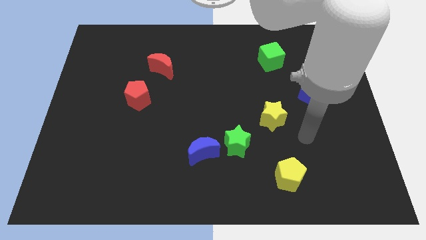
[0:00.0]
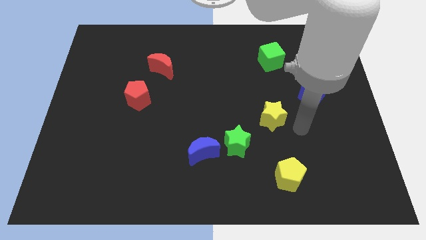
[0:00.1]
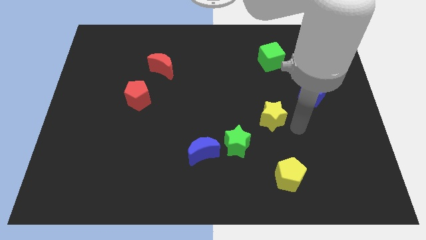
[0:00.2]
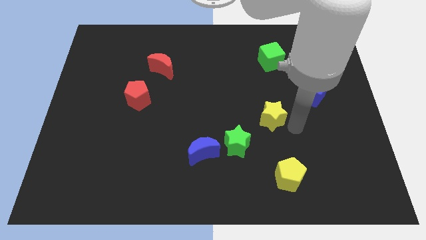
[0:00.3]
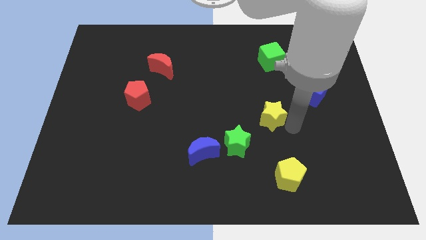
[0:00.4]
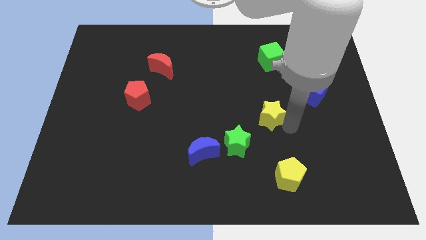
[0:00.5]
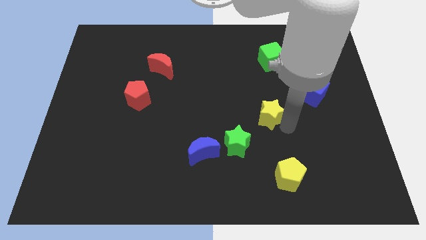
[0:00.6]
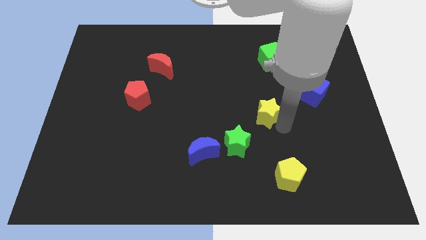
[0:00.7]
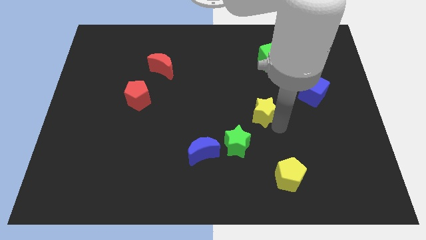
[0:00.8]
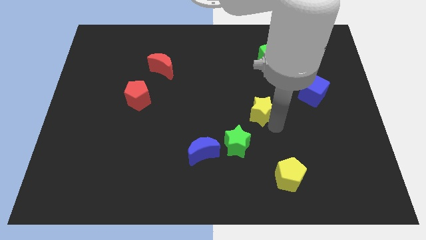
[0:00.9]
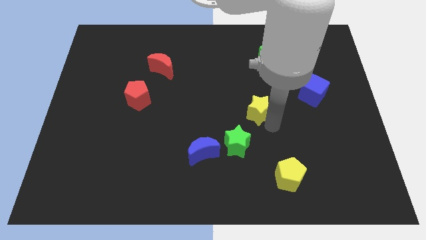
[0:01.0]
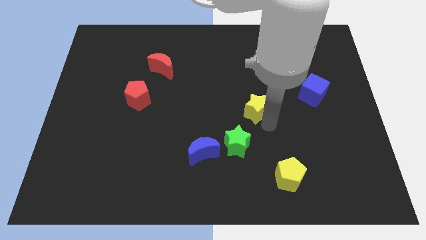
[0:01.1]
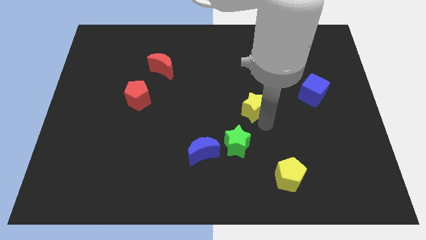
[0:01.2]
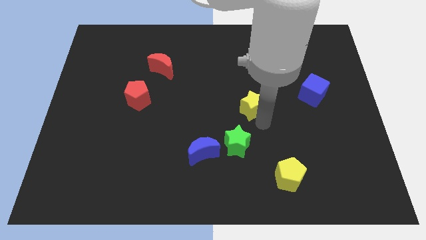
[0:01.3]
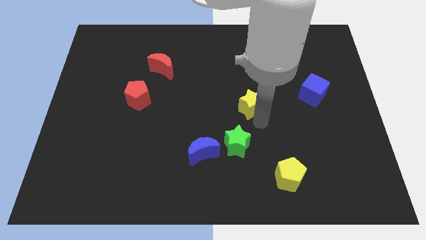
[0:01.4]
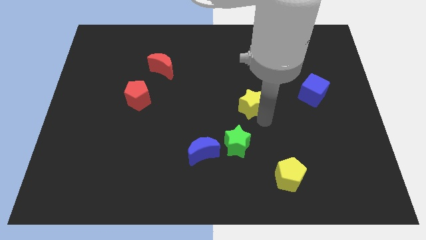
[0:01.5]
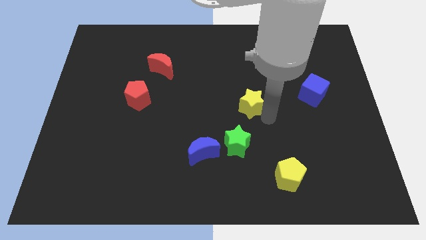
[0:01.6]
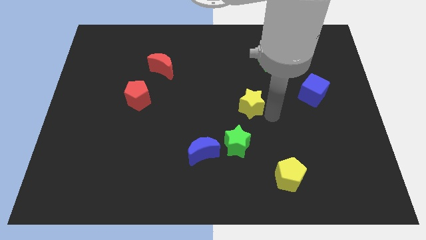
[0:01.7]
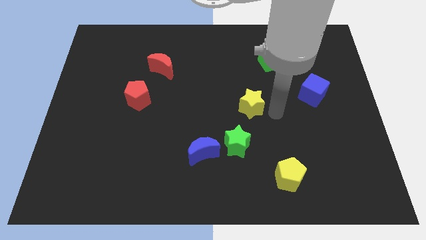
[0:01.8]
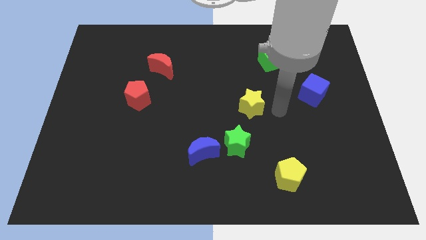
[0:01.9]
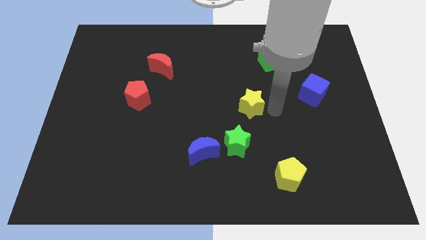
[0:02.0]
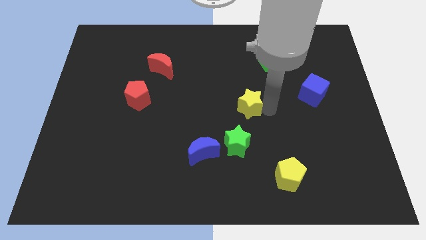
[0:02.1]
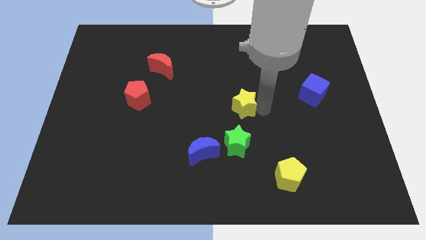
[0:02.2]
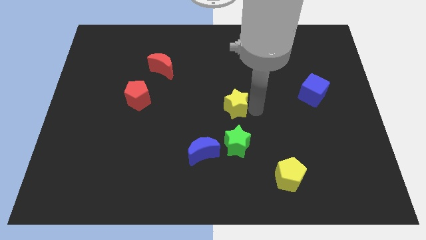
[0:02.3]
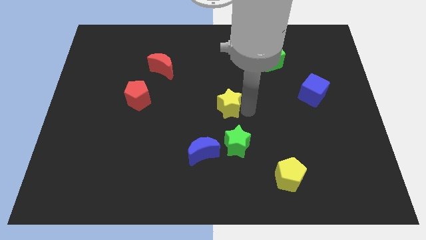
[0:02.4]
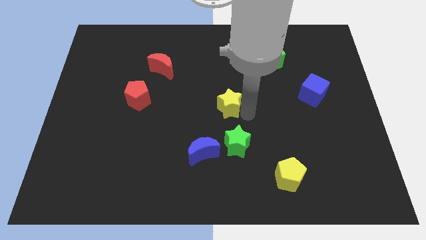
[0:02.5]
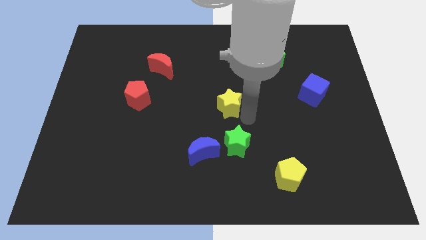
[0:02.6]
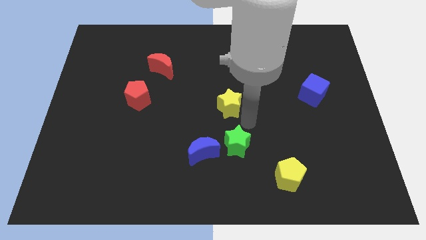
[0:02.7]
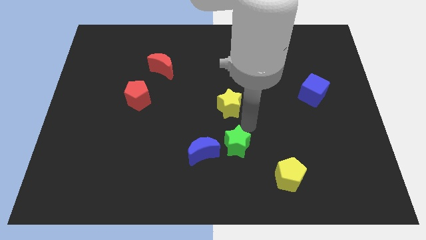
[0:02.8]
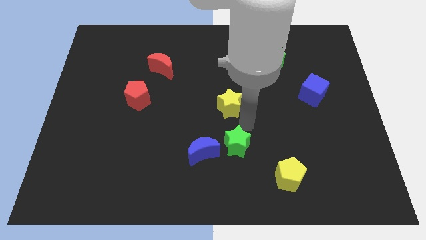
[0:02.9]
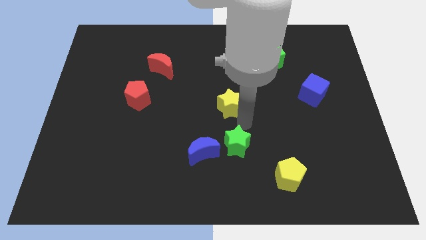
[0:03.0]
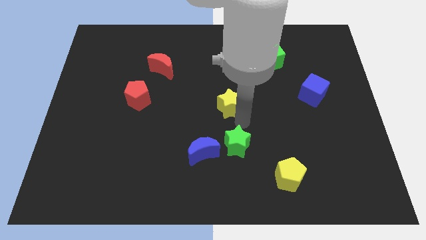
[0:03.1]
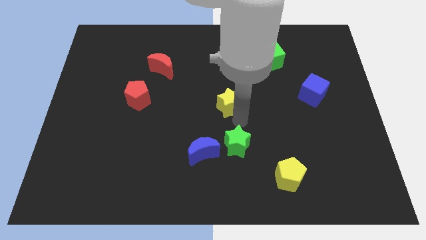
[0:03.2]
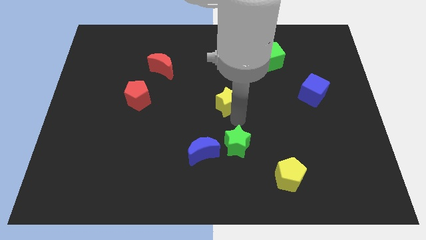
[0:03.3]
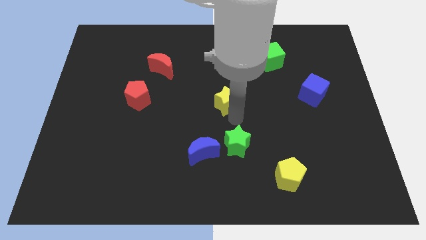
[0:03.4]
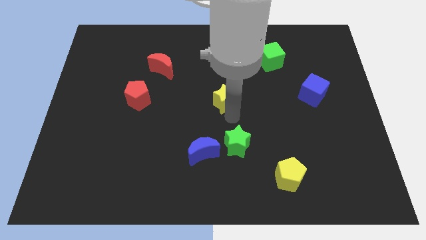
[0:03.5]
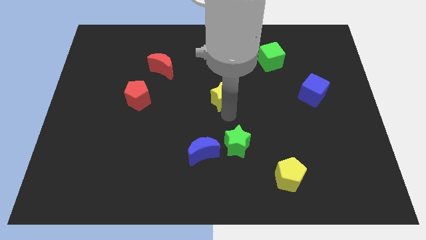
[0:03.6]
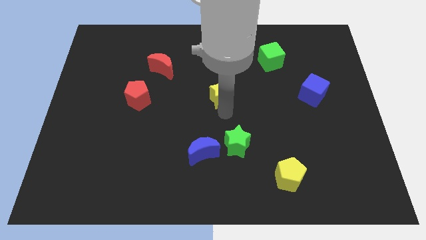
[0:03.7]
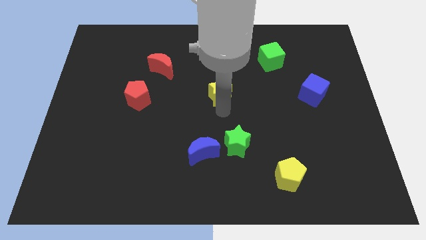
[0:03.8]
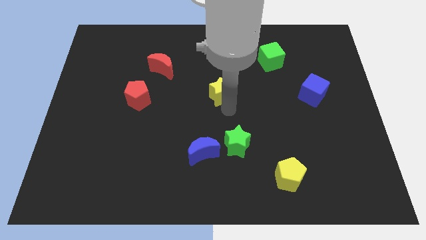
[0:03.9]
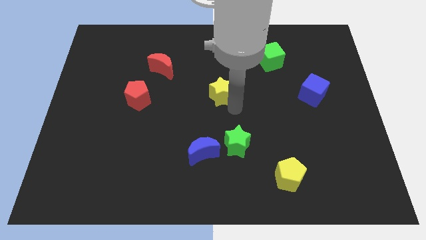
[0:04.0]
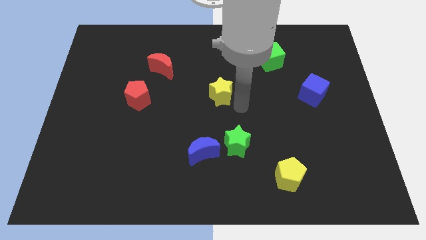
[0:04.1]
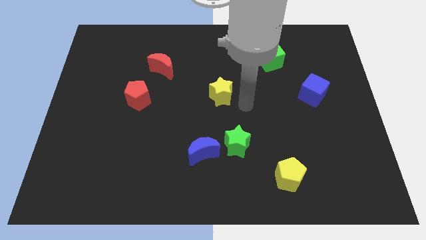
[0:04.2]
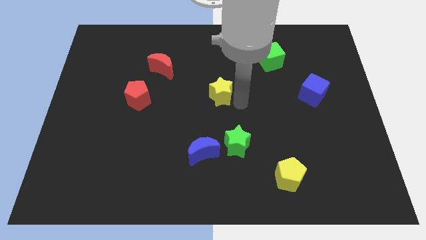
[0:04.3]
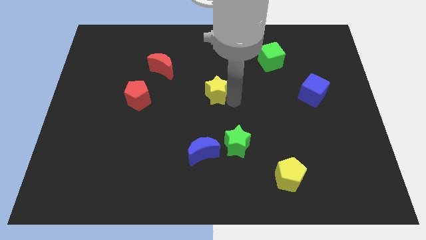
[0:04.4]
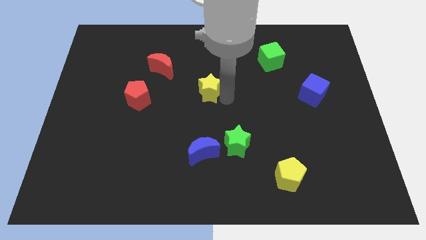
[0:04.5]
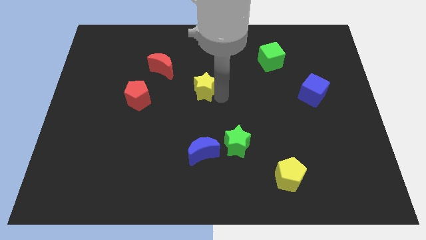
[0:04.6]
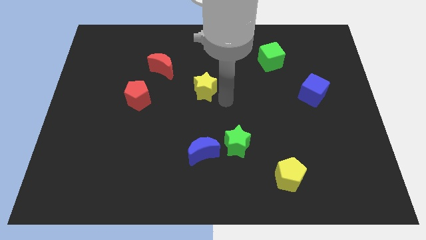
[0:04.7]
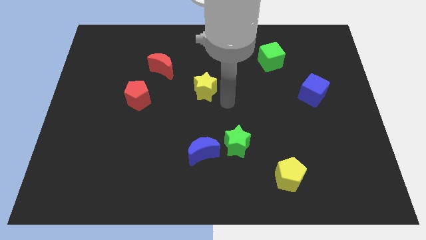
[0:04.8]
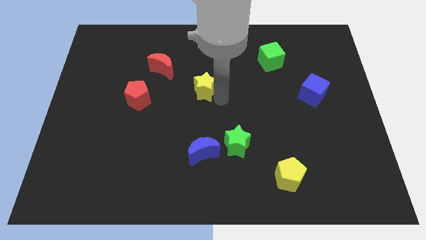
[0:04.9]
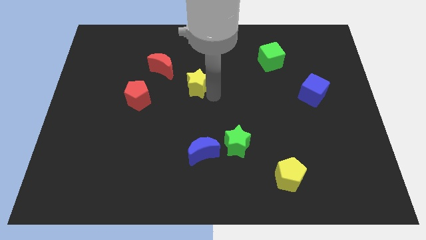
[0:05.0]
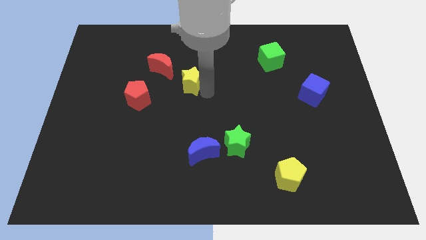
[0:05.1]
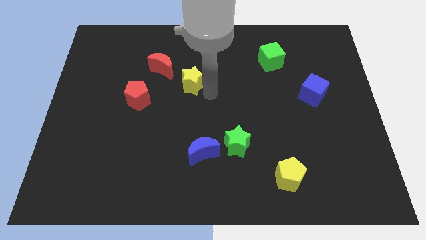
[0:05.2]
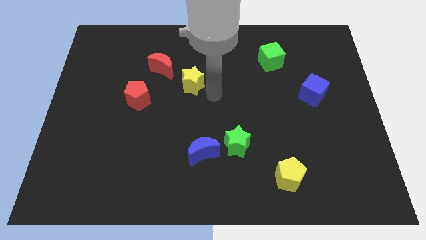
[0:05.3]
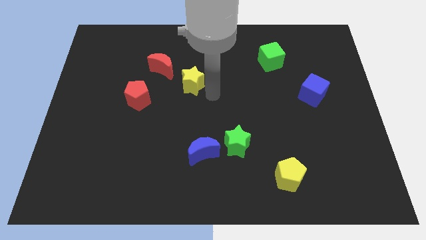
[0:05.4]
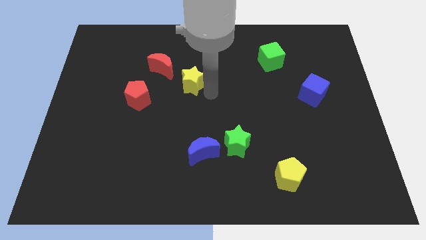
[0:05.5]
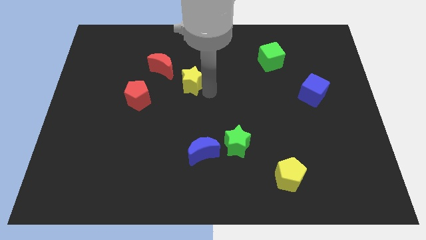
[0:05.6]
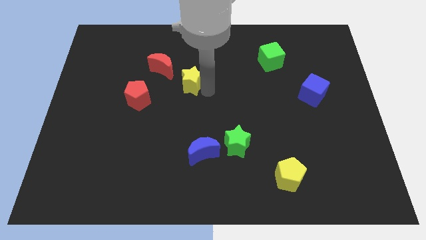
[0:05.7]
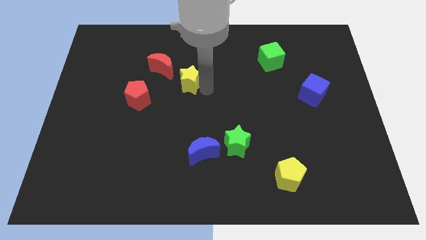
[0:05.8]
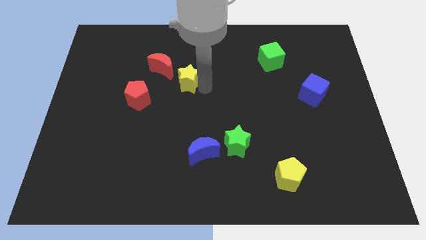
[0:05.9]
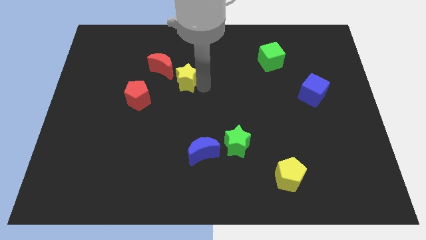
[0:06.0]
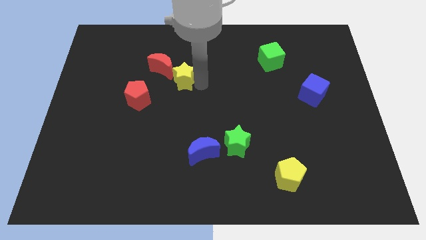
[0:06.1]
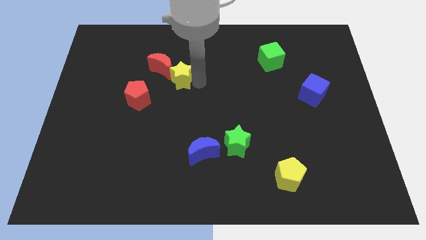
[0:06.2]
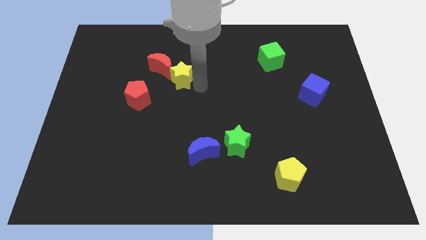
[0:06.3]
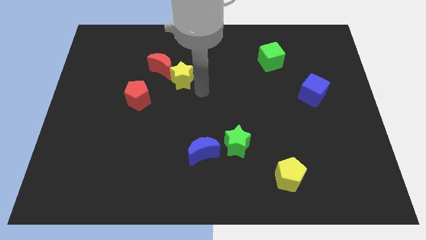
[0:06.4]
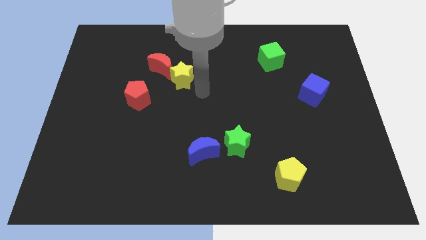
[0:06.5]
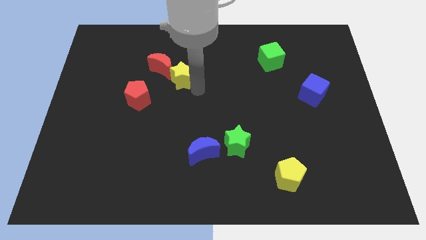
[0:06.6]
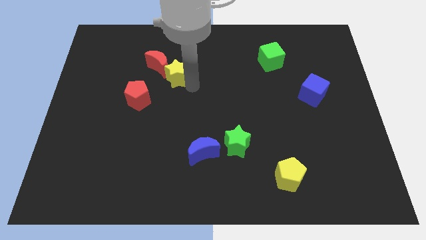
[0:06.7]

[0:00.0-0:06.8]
push the yellow star next to the red moon

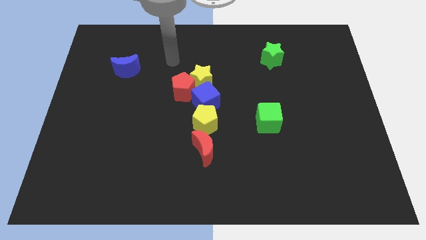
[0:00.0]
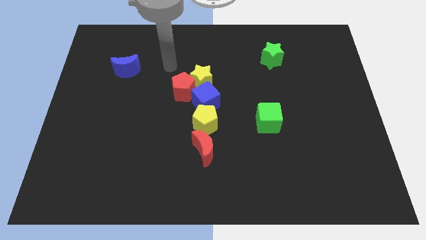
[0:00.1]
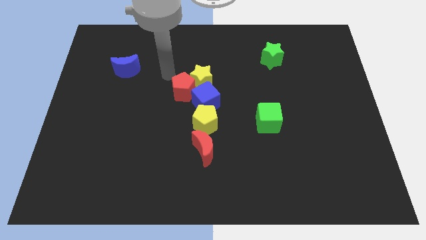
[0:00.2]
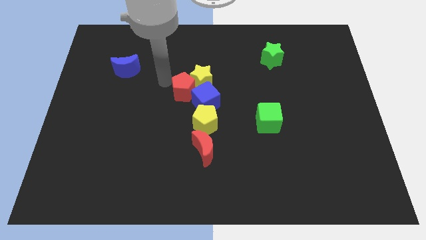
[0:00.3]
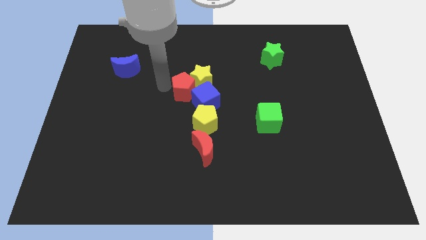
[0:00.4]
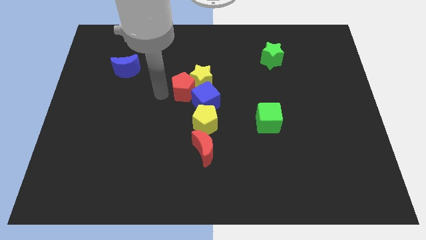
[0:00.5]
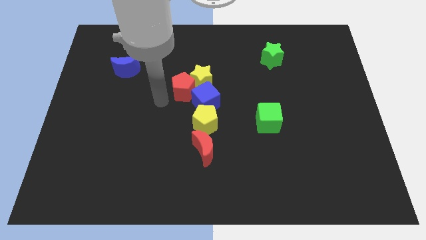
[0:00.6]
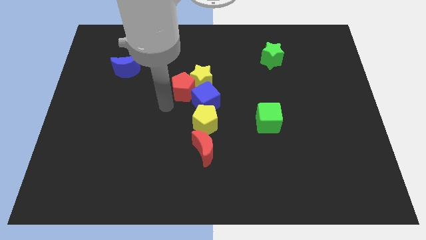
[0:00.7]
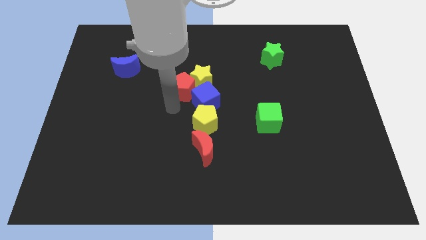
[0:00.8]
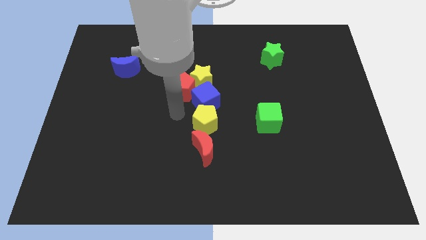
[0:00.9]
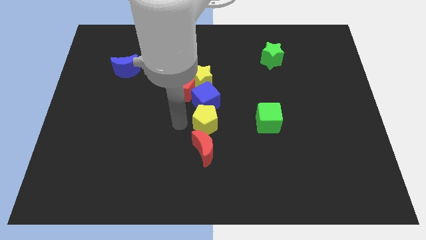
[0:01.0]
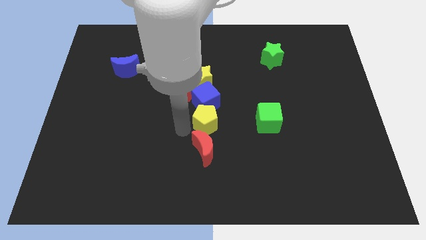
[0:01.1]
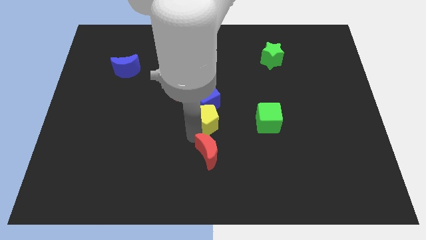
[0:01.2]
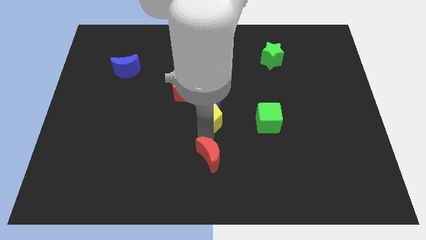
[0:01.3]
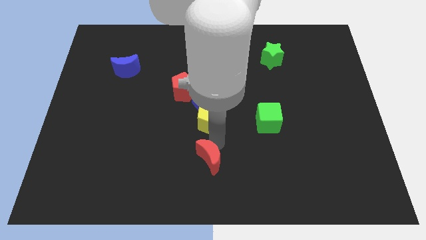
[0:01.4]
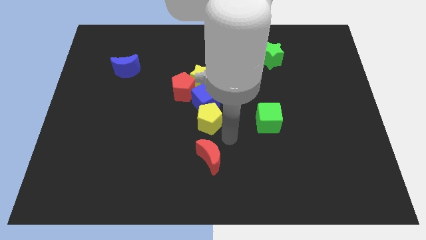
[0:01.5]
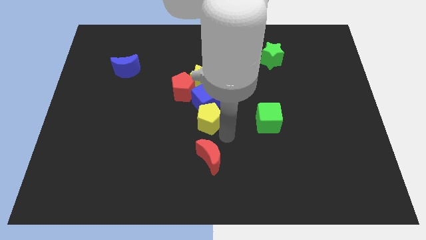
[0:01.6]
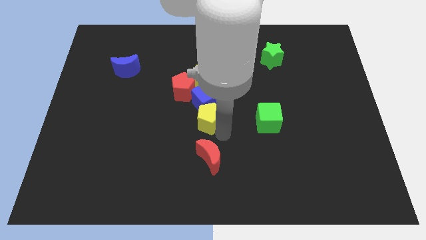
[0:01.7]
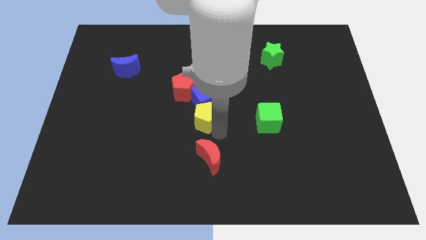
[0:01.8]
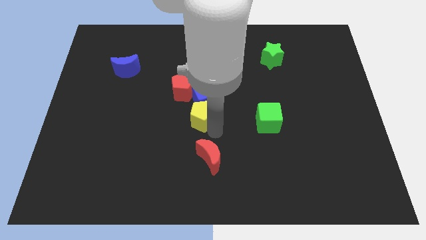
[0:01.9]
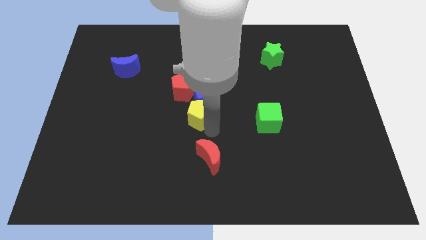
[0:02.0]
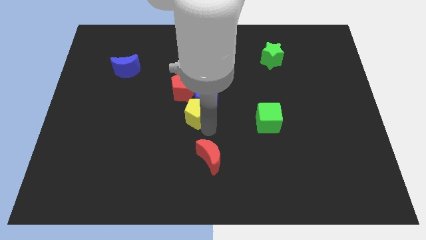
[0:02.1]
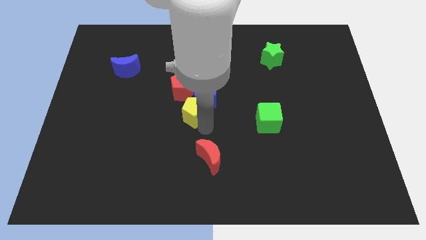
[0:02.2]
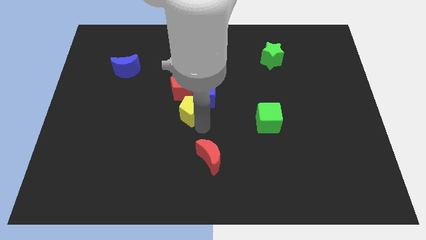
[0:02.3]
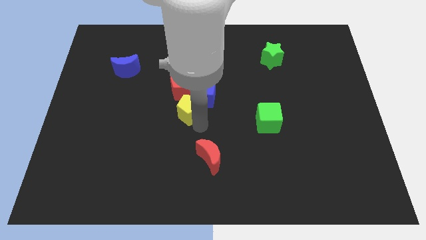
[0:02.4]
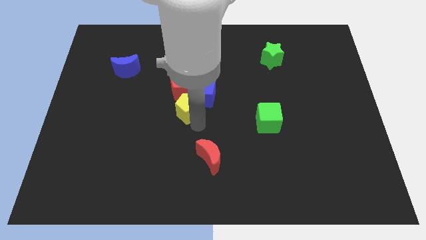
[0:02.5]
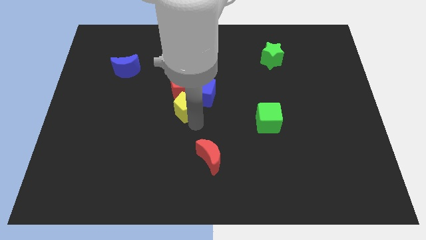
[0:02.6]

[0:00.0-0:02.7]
push the yellow pentagon next to the red pentagon
